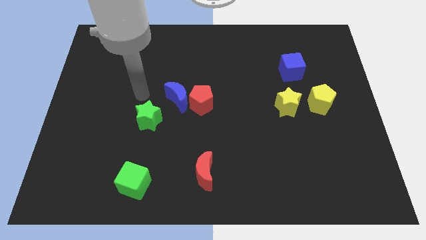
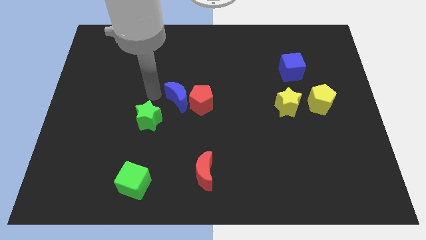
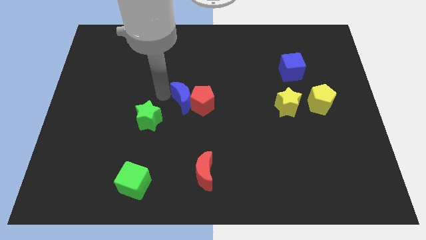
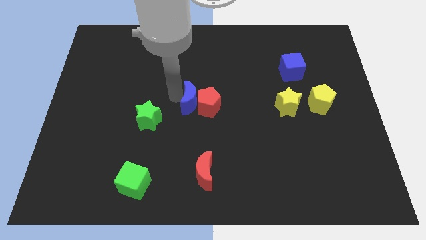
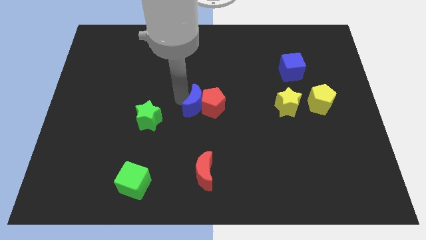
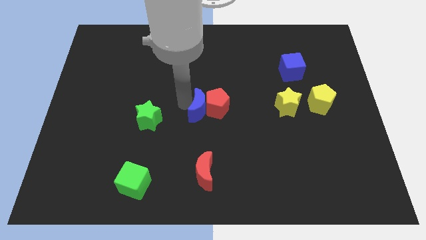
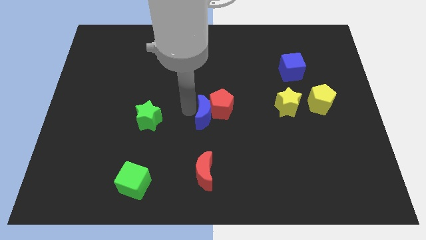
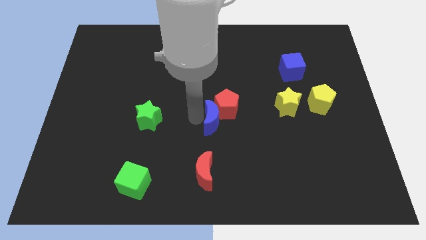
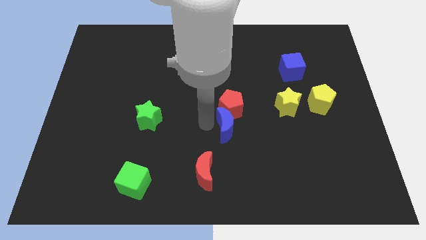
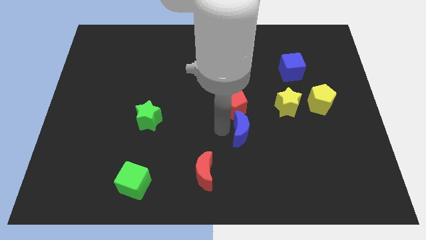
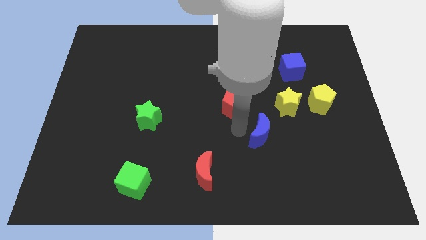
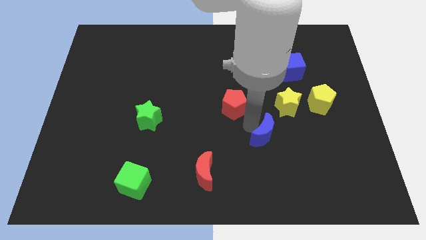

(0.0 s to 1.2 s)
separate the red pentagon from the blue moon

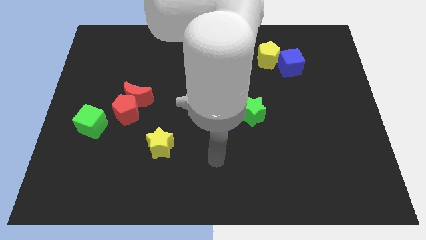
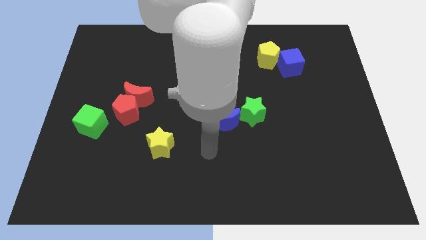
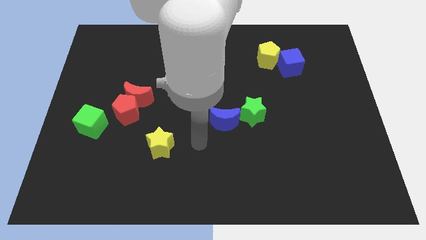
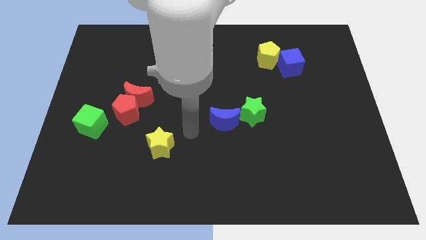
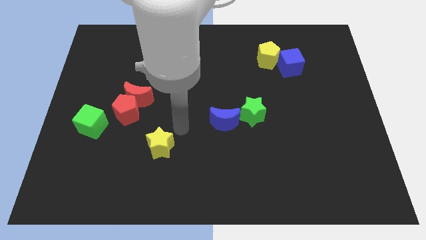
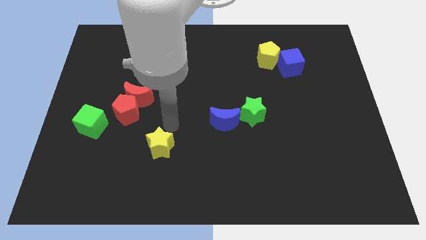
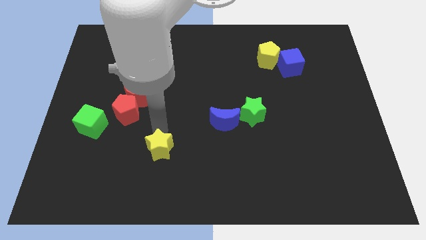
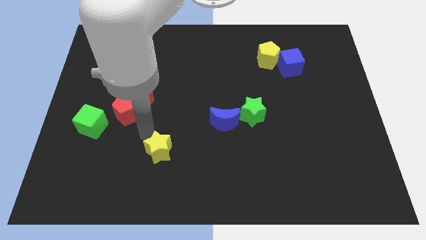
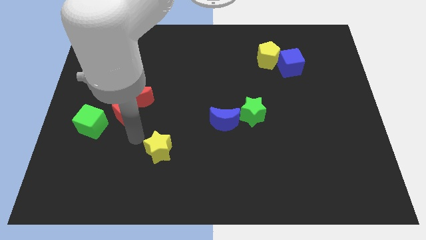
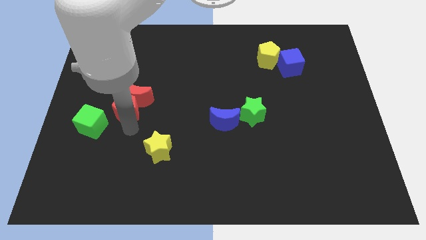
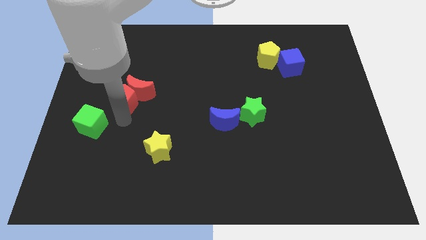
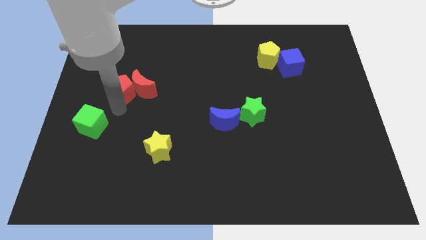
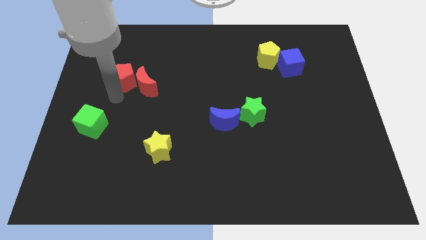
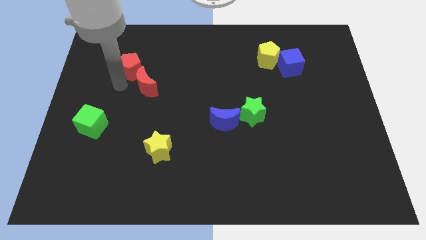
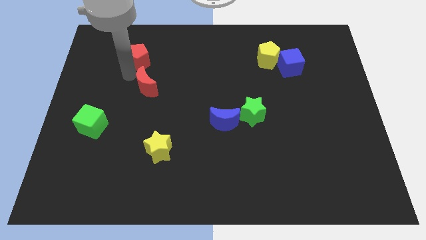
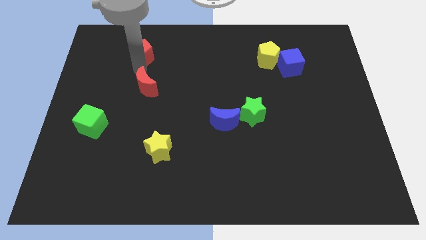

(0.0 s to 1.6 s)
pull the red moon apart from the red pentagon

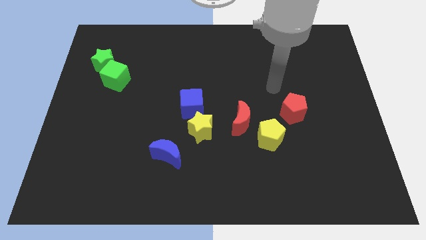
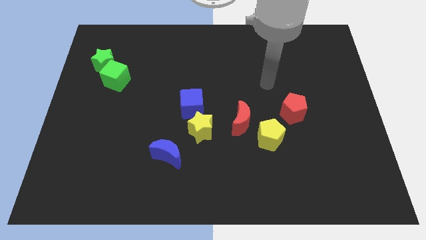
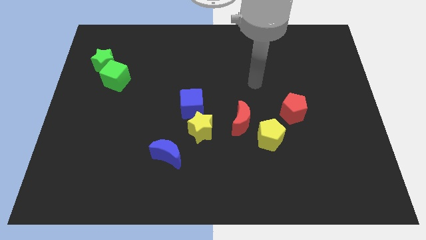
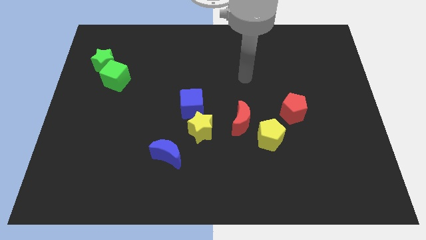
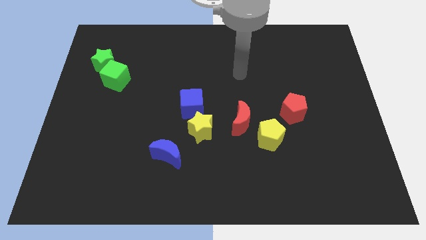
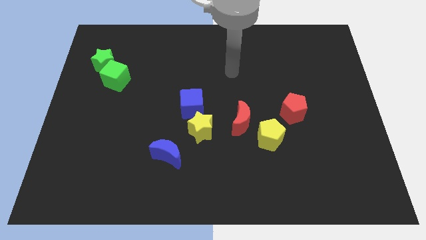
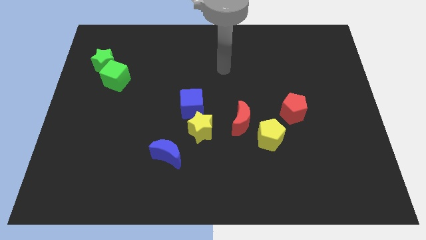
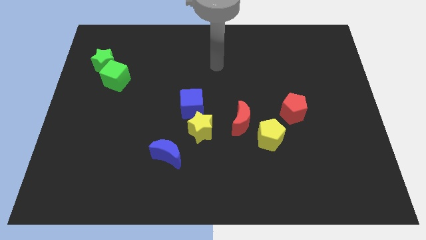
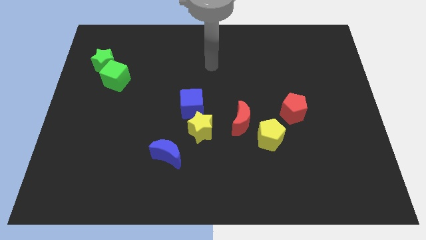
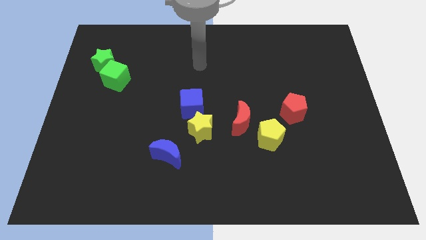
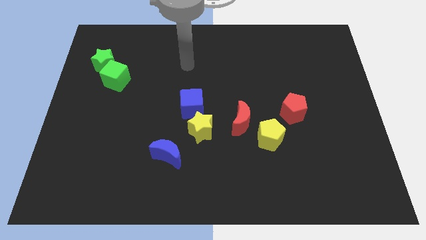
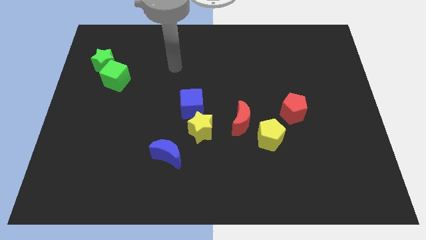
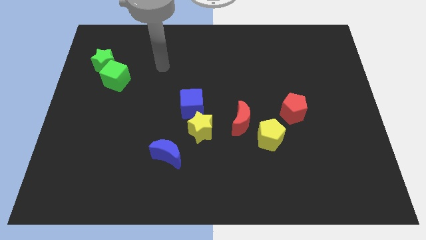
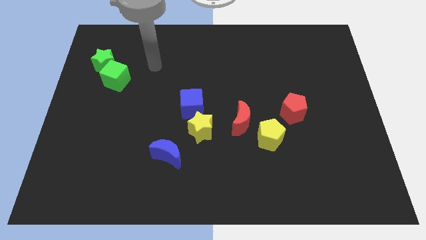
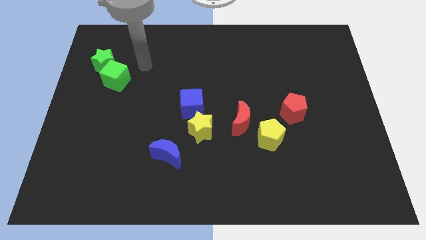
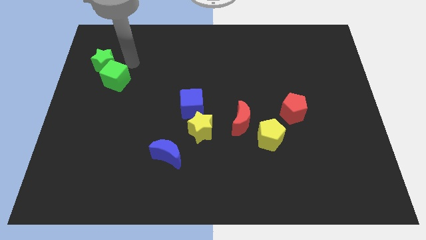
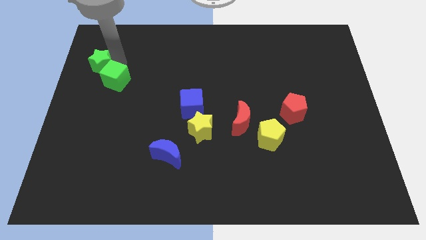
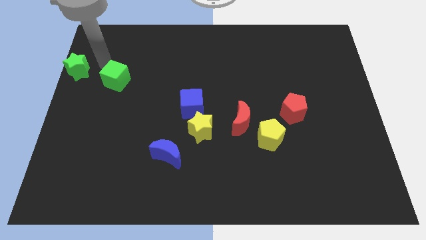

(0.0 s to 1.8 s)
pull the green cube apart from the green star

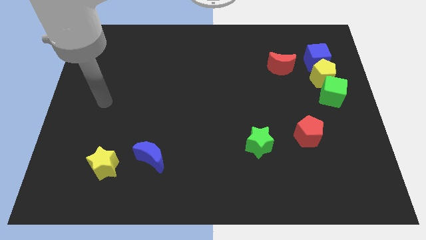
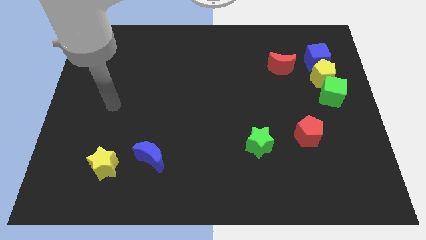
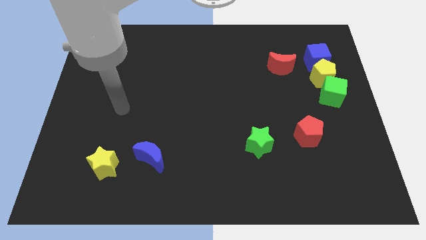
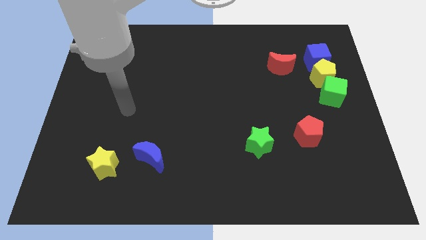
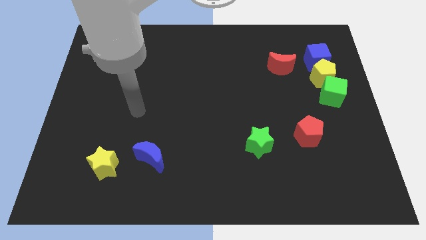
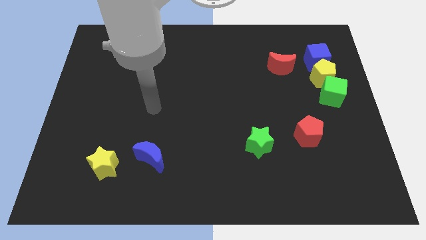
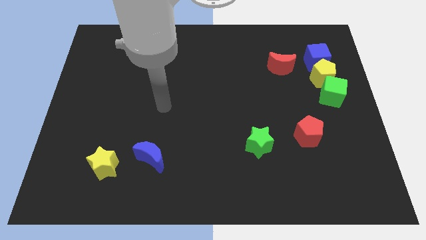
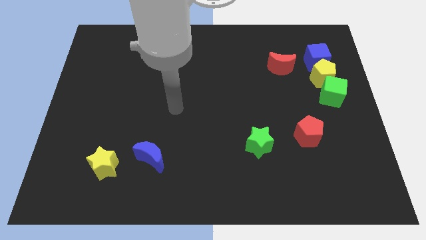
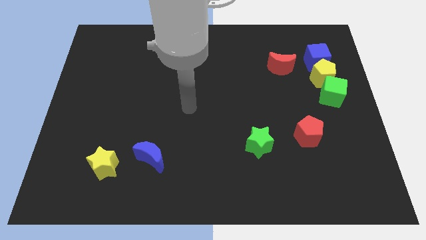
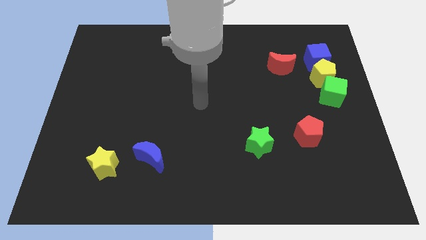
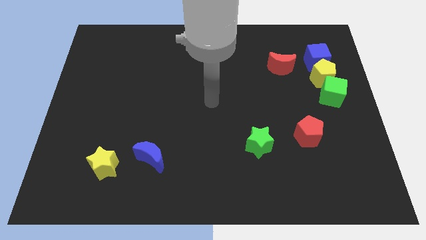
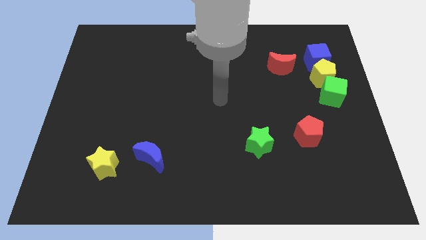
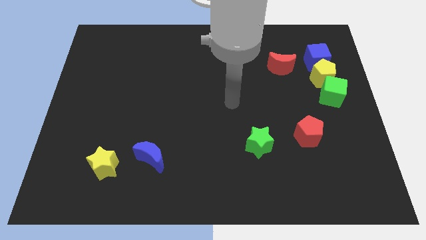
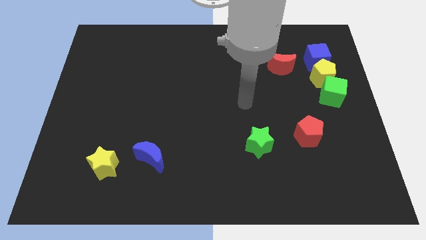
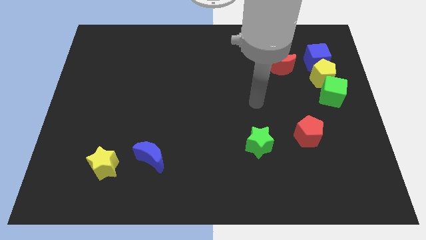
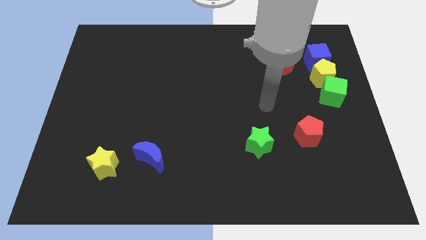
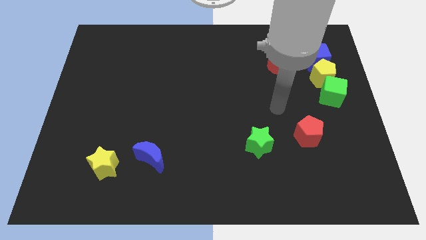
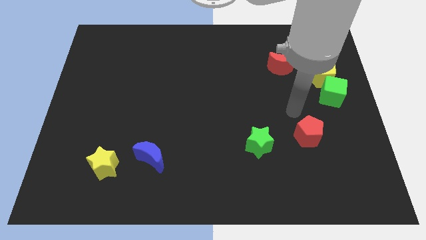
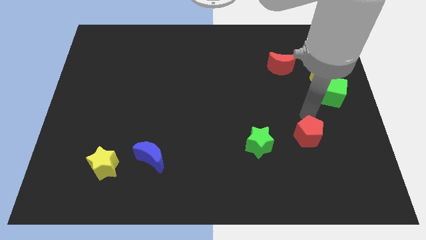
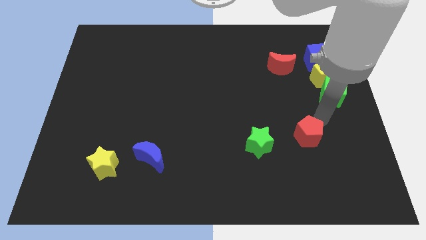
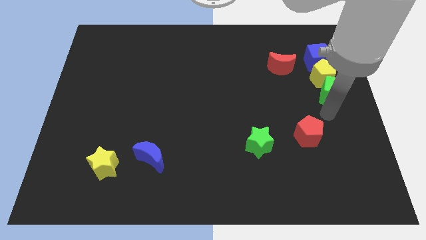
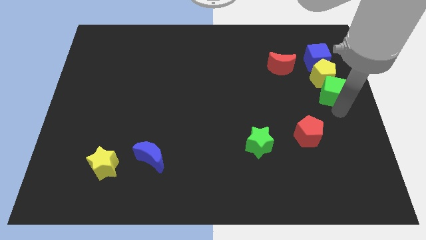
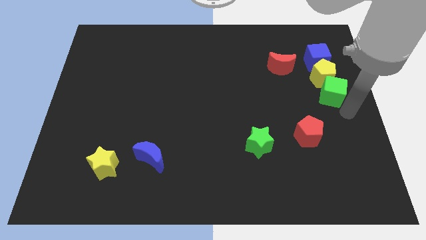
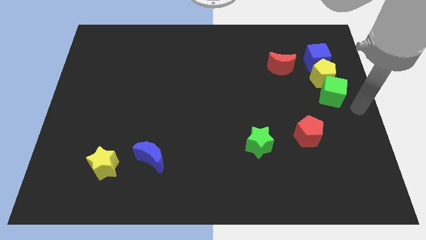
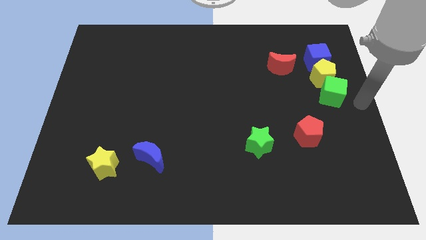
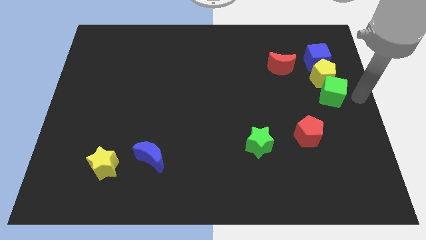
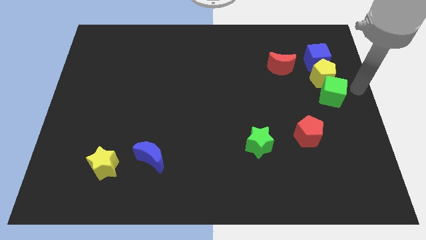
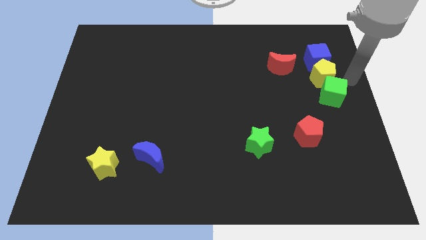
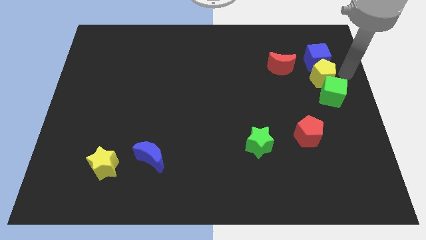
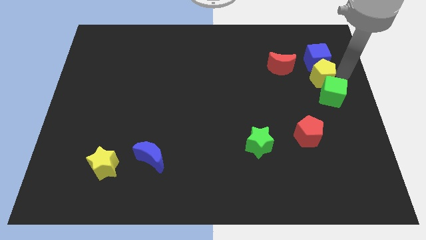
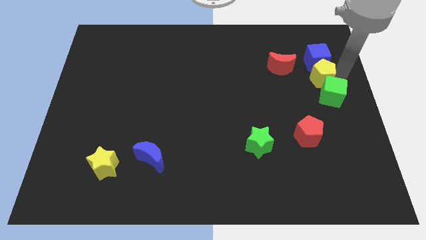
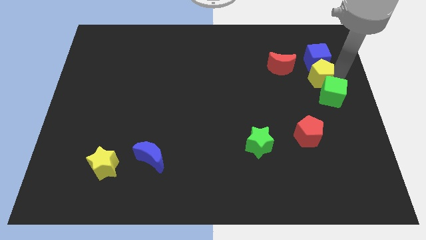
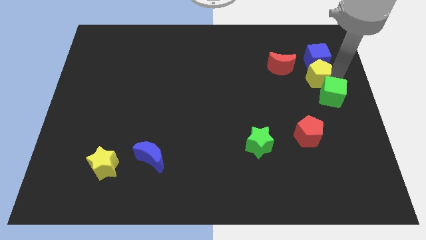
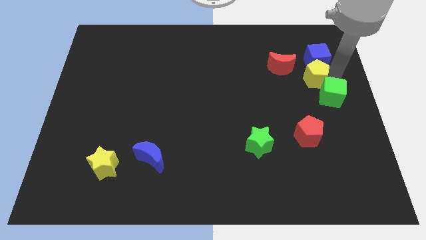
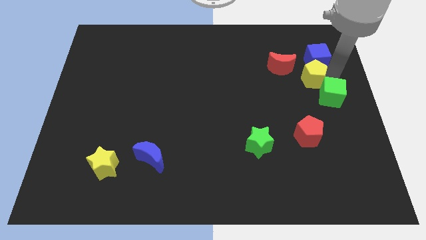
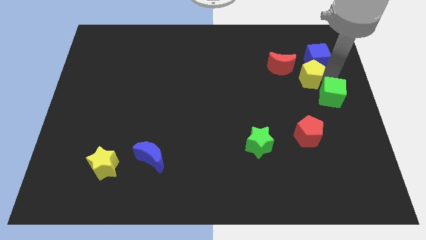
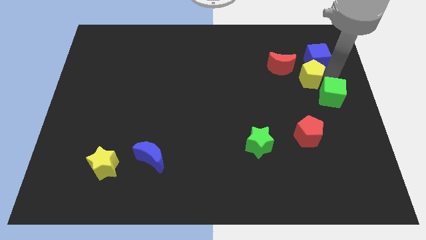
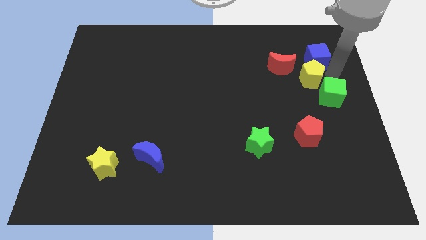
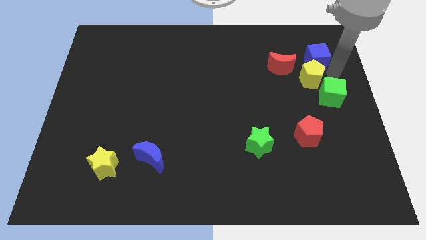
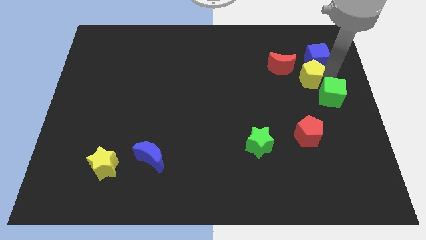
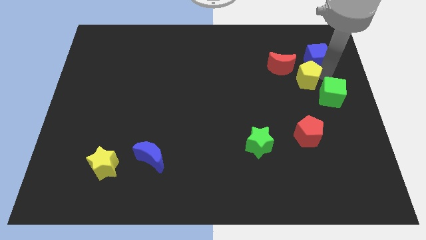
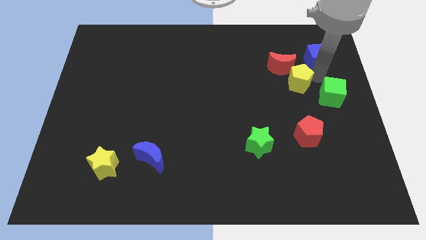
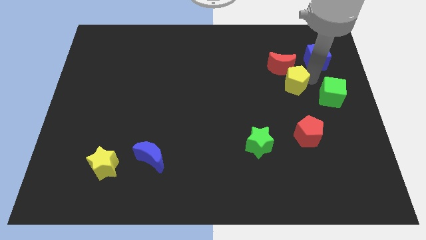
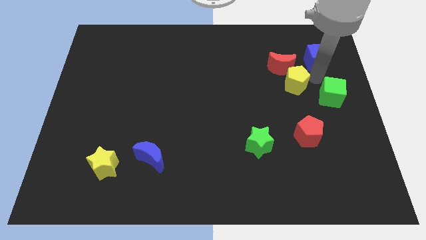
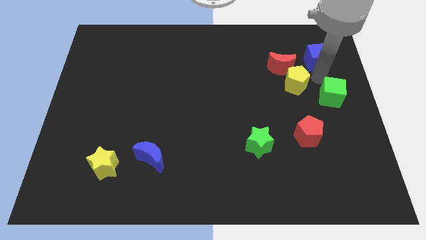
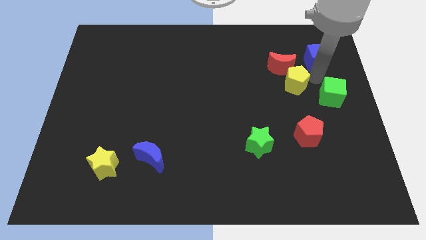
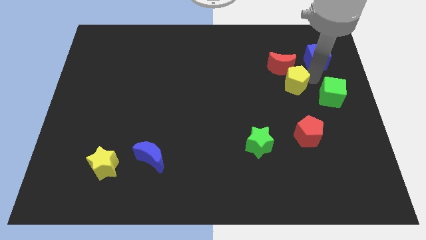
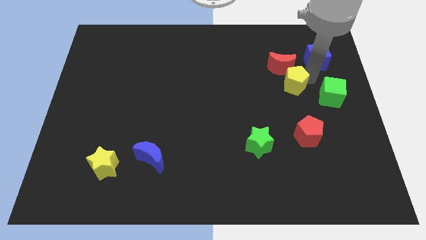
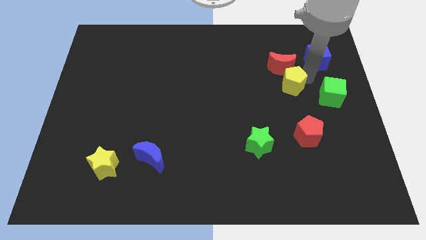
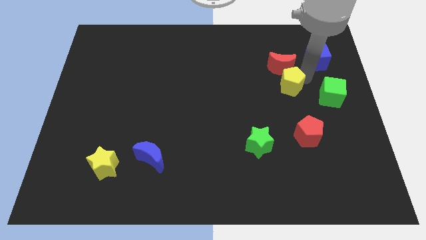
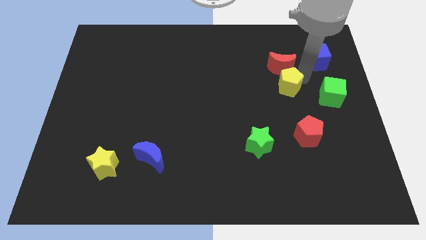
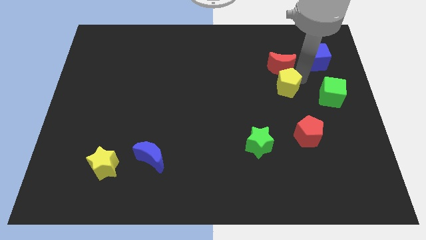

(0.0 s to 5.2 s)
move the yellow pentagon away from the blue cube and green cube
